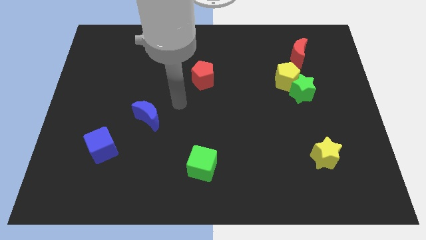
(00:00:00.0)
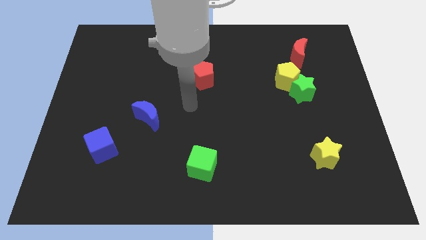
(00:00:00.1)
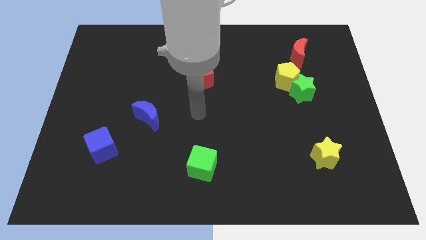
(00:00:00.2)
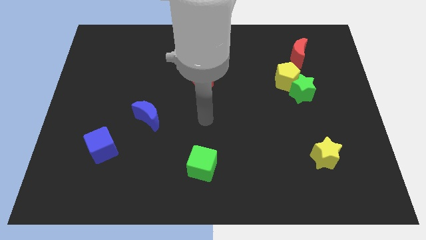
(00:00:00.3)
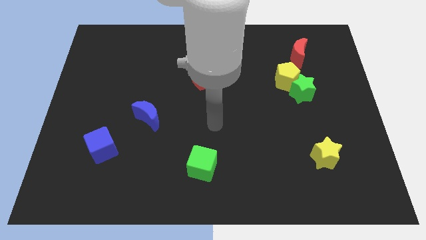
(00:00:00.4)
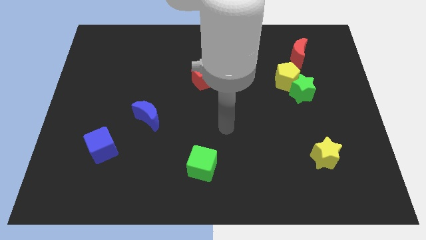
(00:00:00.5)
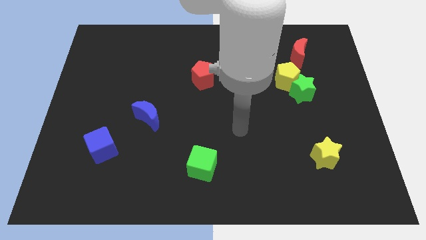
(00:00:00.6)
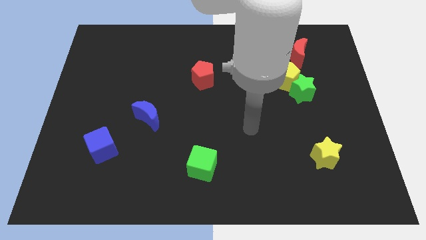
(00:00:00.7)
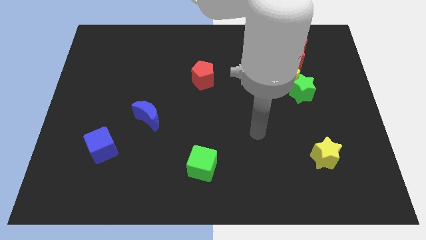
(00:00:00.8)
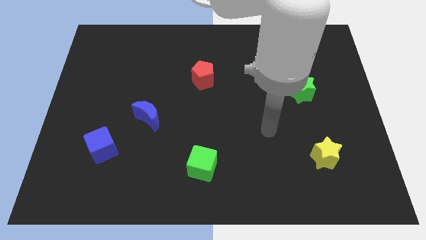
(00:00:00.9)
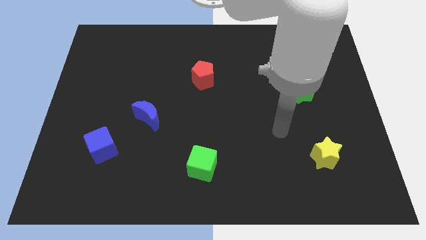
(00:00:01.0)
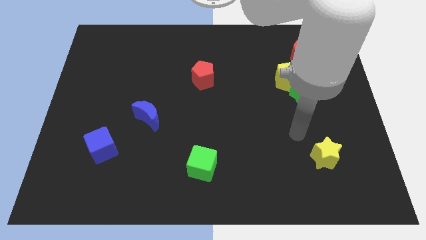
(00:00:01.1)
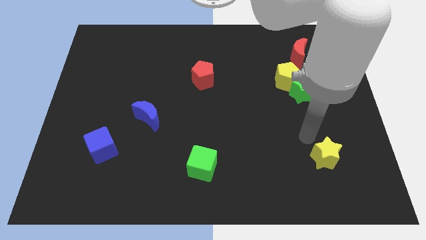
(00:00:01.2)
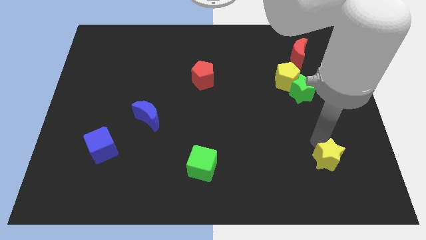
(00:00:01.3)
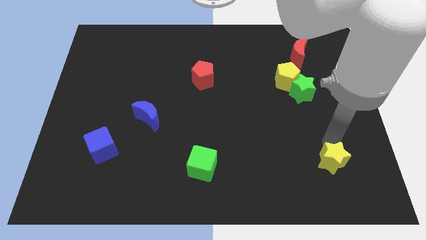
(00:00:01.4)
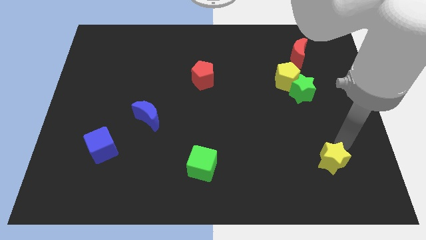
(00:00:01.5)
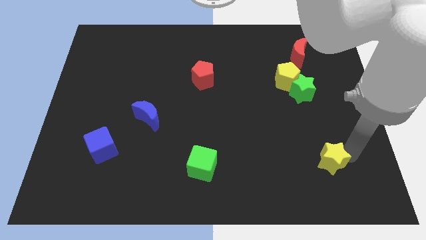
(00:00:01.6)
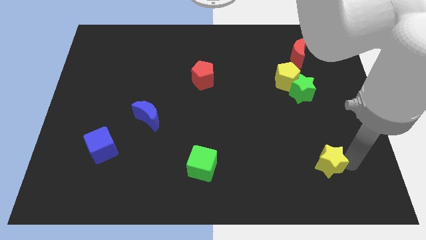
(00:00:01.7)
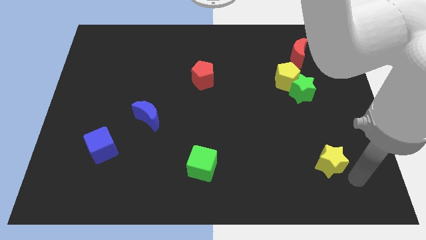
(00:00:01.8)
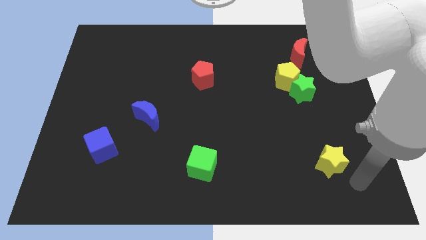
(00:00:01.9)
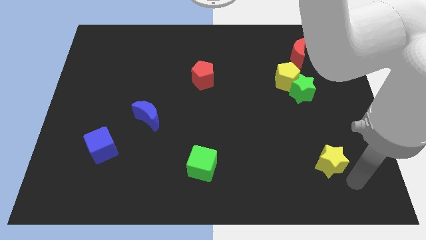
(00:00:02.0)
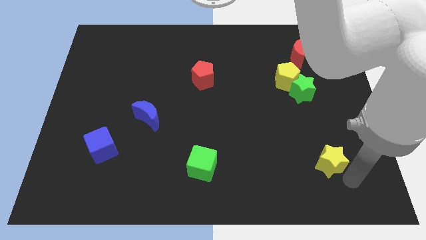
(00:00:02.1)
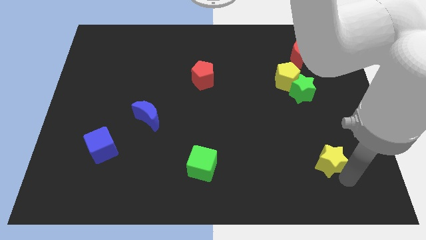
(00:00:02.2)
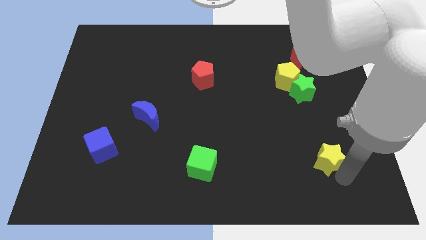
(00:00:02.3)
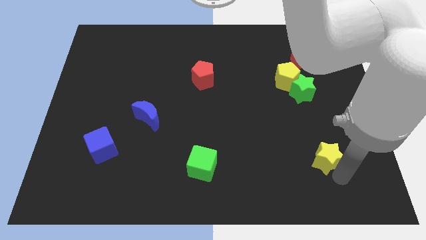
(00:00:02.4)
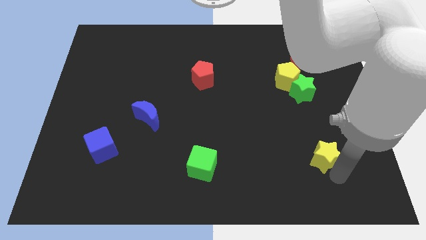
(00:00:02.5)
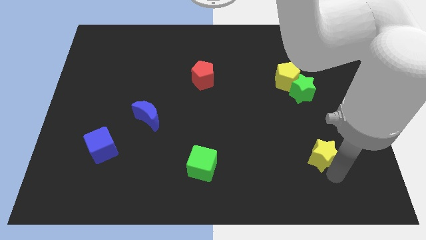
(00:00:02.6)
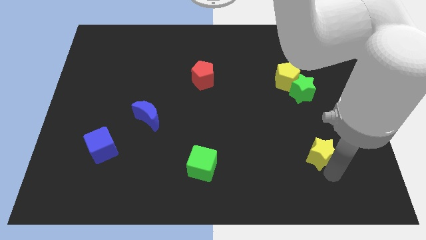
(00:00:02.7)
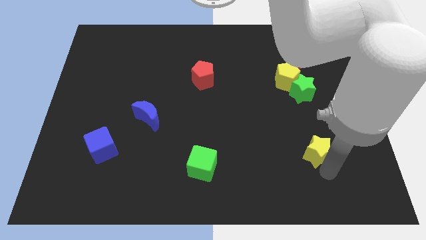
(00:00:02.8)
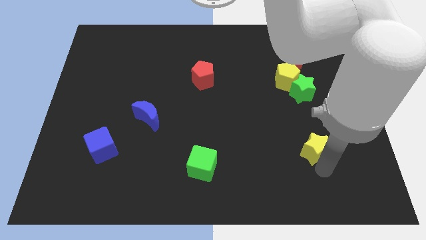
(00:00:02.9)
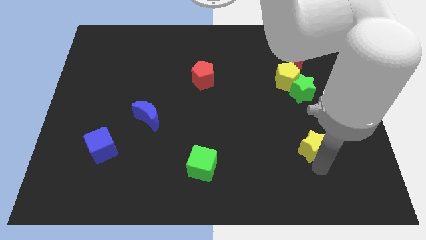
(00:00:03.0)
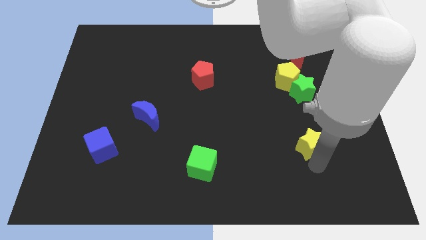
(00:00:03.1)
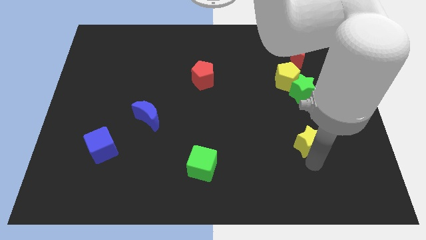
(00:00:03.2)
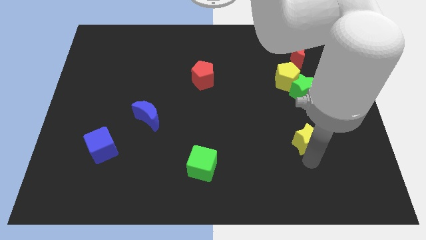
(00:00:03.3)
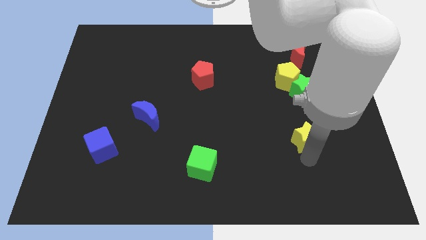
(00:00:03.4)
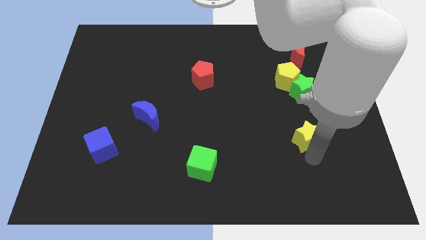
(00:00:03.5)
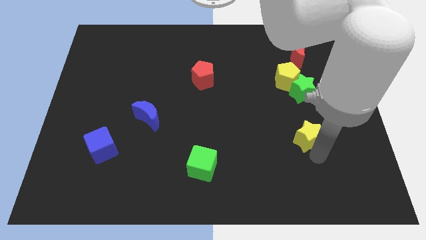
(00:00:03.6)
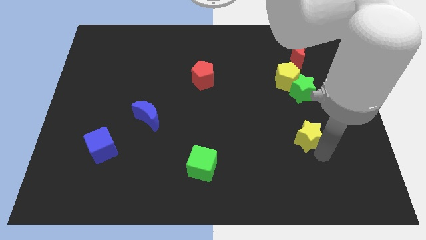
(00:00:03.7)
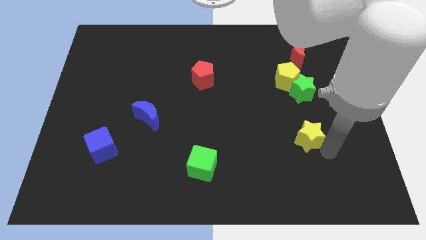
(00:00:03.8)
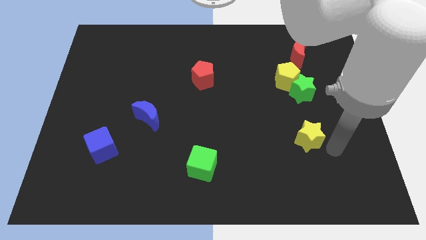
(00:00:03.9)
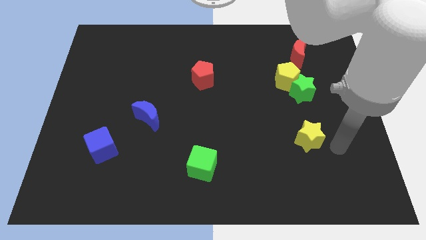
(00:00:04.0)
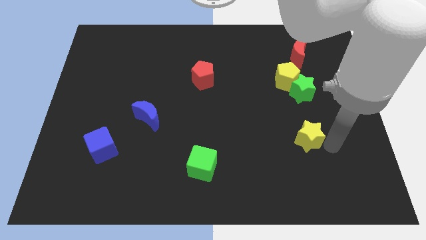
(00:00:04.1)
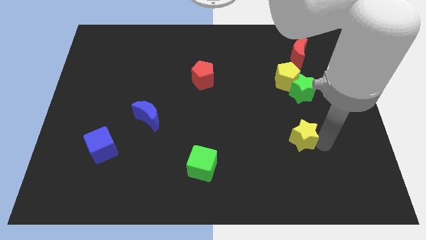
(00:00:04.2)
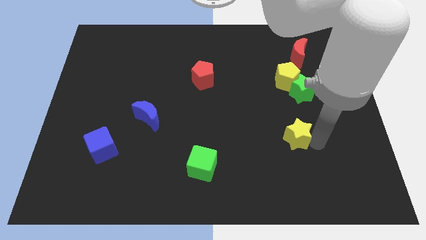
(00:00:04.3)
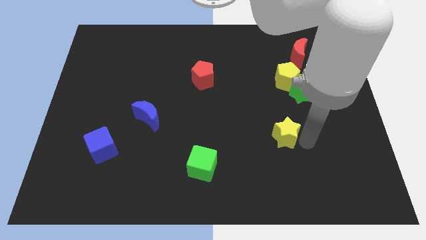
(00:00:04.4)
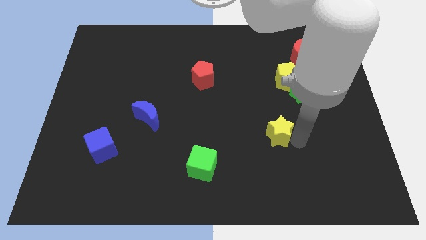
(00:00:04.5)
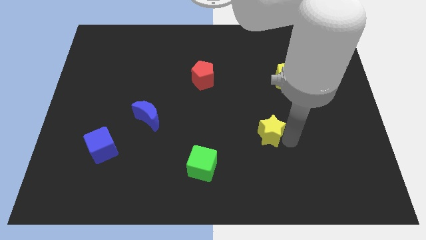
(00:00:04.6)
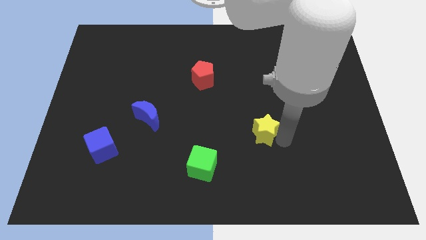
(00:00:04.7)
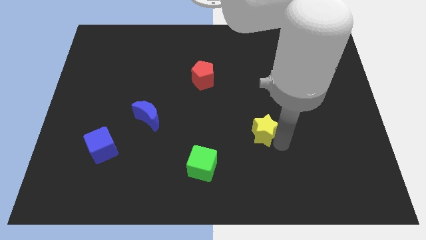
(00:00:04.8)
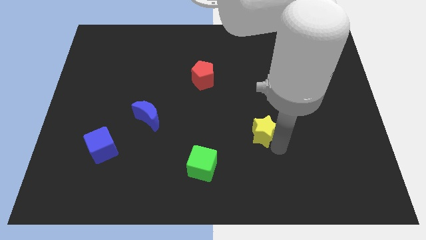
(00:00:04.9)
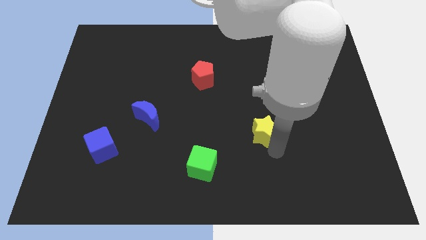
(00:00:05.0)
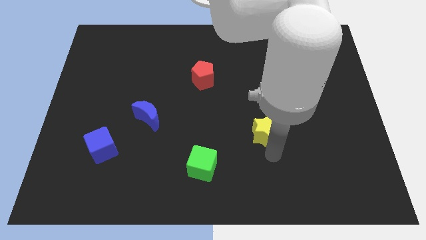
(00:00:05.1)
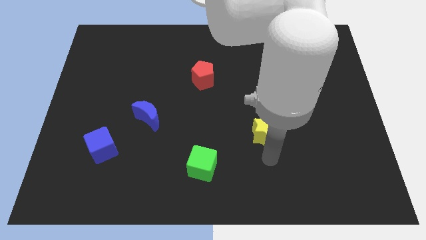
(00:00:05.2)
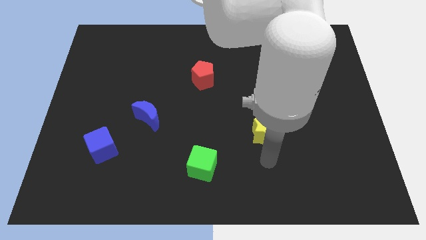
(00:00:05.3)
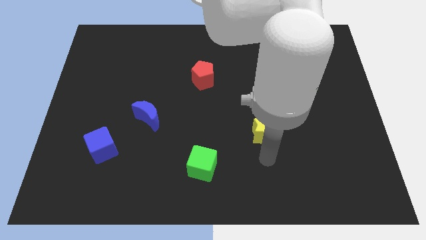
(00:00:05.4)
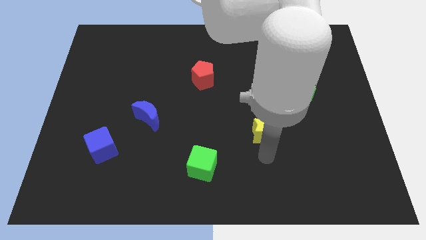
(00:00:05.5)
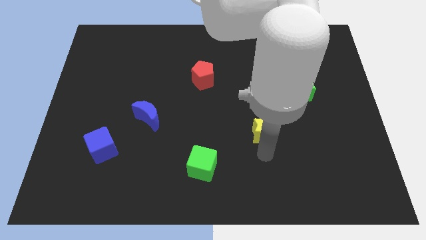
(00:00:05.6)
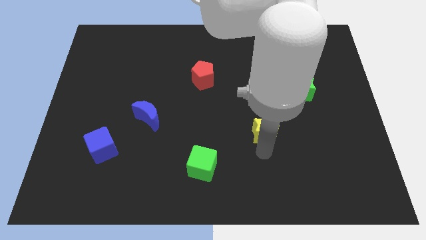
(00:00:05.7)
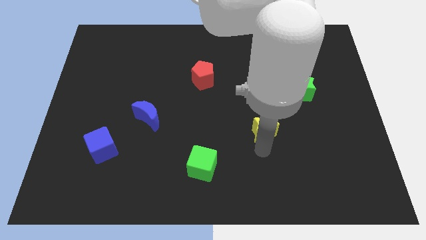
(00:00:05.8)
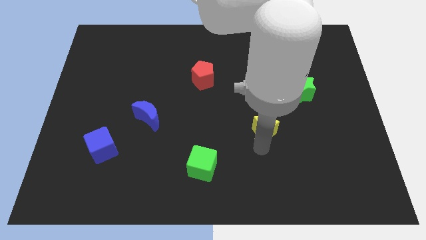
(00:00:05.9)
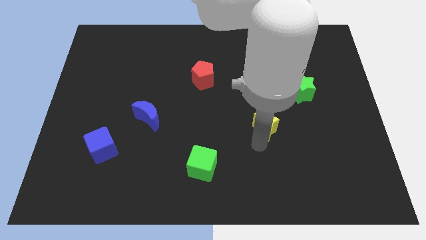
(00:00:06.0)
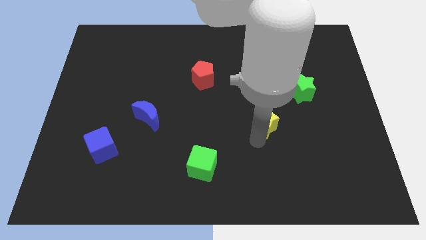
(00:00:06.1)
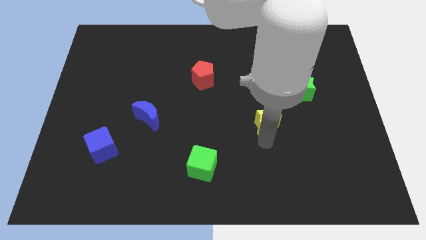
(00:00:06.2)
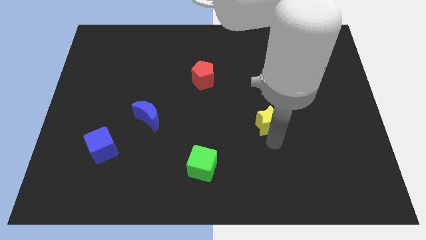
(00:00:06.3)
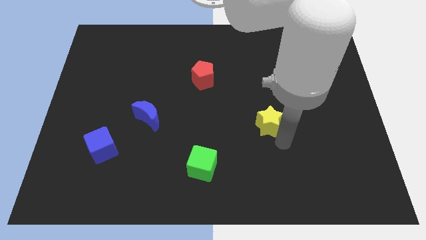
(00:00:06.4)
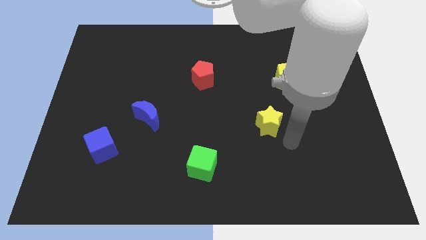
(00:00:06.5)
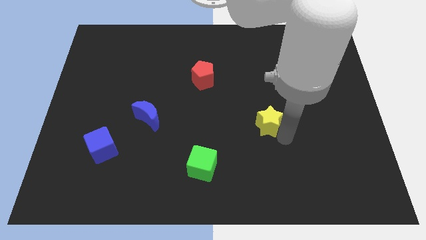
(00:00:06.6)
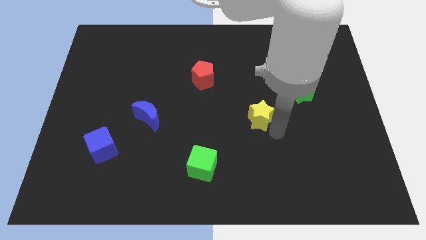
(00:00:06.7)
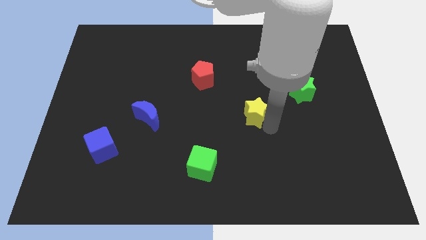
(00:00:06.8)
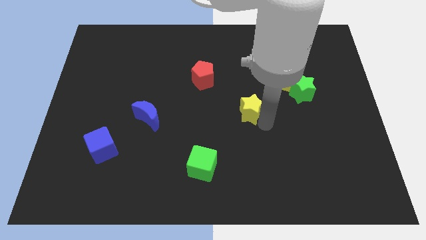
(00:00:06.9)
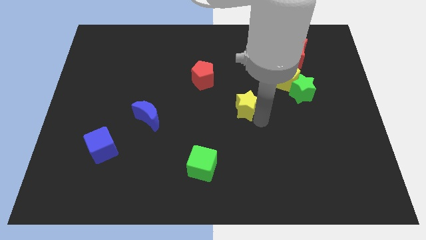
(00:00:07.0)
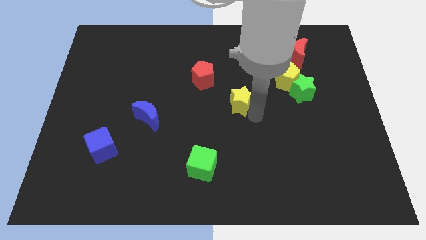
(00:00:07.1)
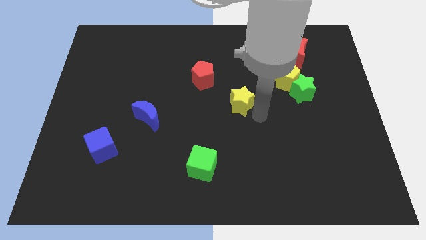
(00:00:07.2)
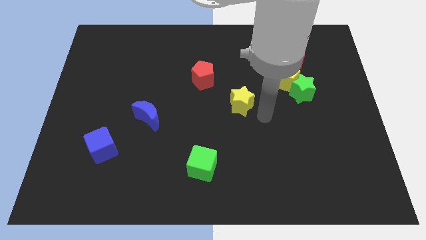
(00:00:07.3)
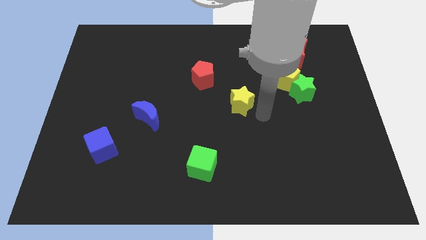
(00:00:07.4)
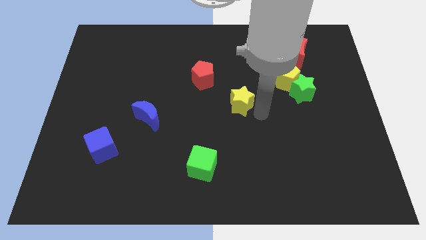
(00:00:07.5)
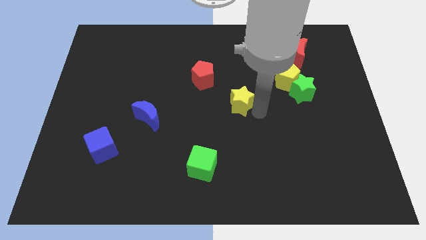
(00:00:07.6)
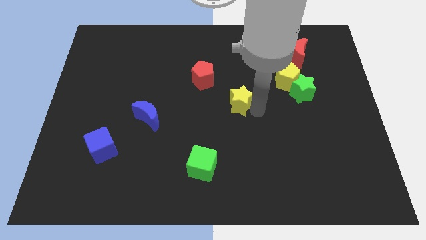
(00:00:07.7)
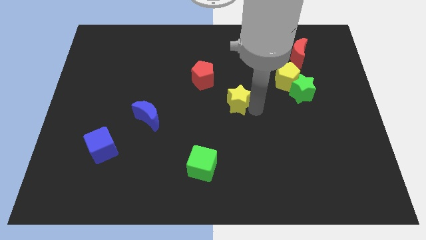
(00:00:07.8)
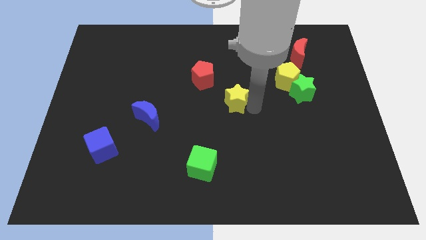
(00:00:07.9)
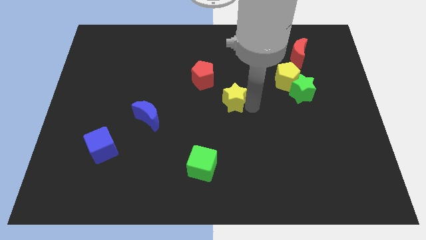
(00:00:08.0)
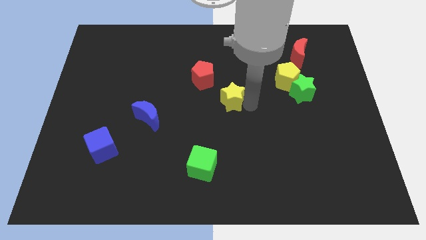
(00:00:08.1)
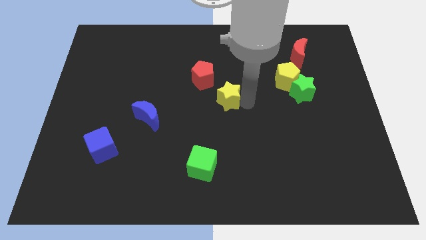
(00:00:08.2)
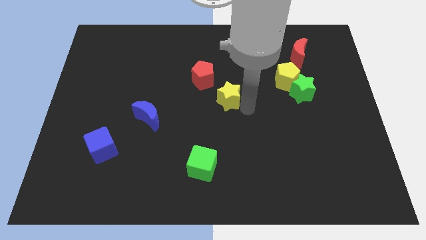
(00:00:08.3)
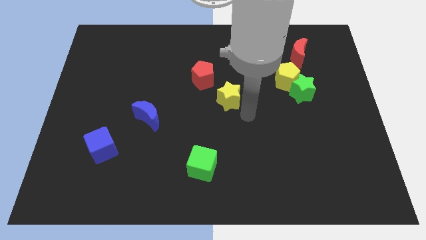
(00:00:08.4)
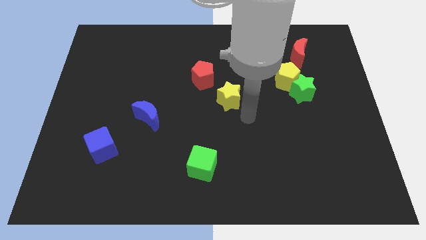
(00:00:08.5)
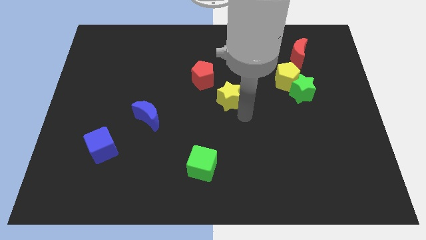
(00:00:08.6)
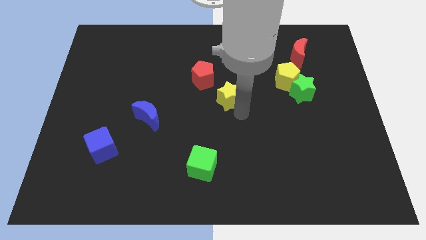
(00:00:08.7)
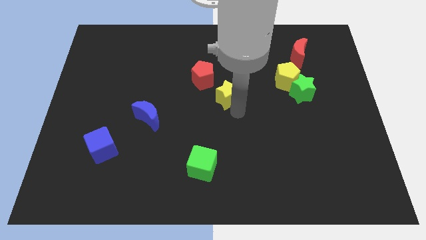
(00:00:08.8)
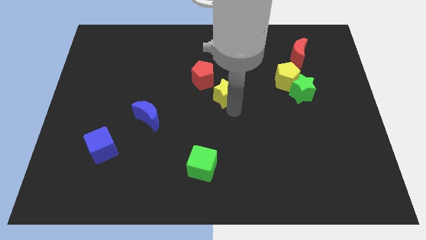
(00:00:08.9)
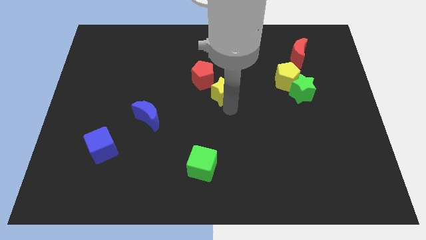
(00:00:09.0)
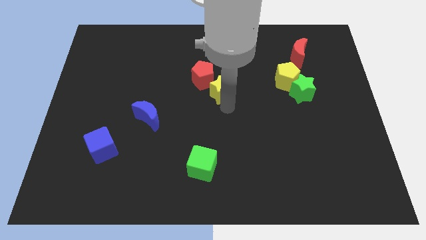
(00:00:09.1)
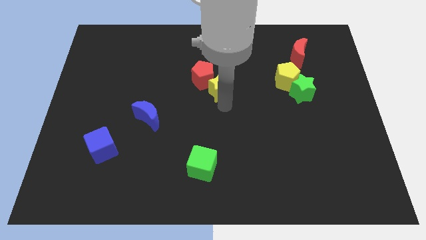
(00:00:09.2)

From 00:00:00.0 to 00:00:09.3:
slide the yellow star close to the red pentagon
